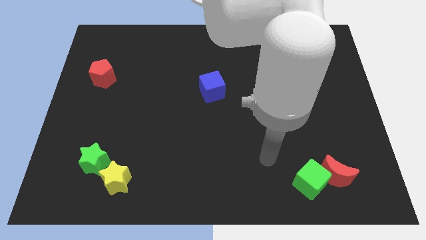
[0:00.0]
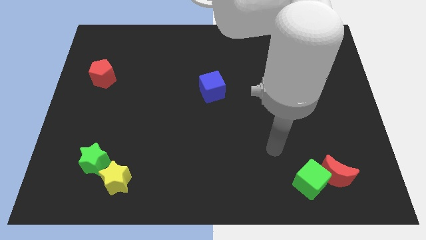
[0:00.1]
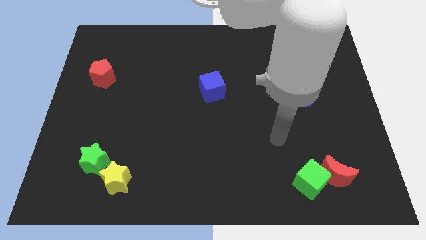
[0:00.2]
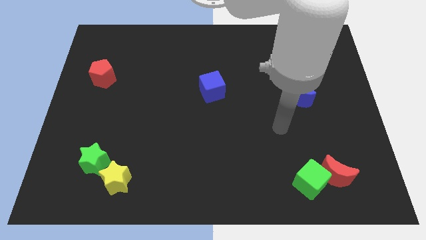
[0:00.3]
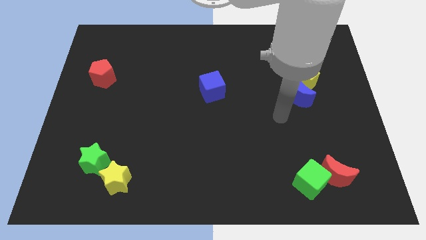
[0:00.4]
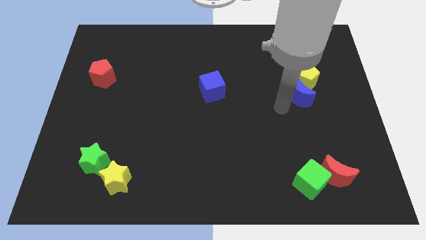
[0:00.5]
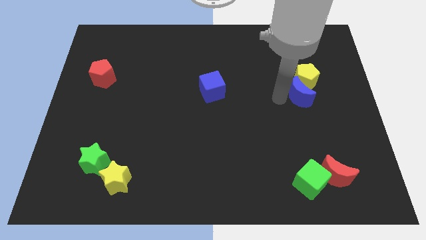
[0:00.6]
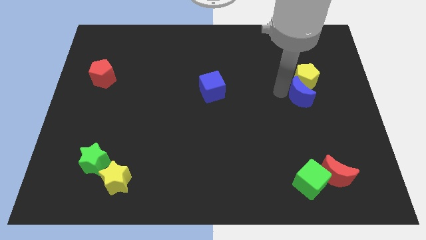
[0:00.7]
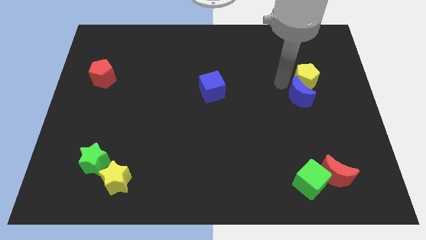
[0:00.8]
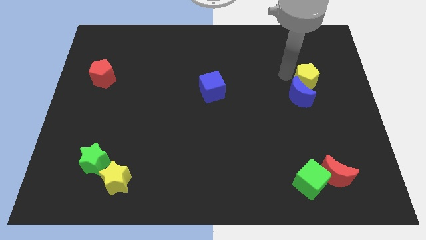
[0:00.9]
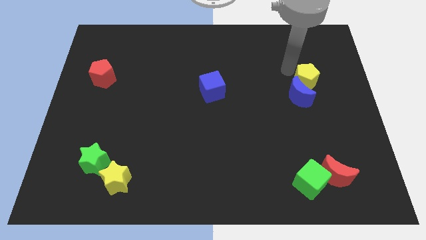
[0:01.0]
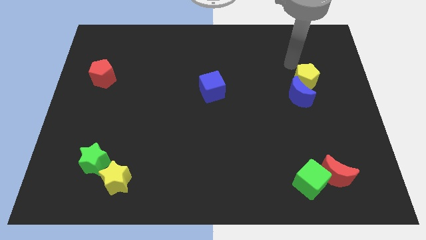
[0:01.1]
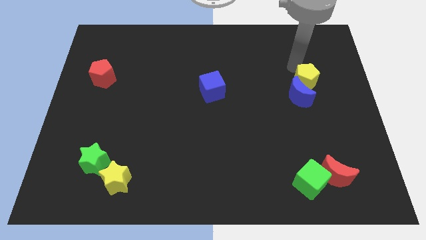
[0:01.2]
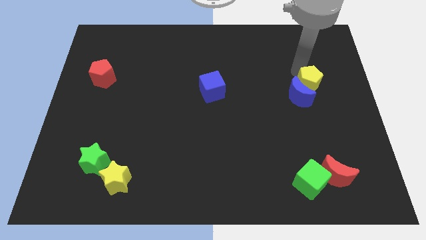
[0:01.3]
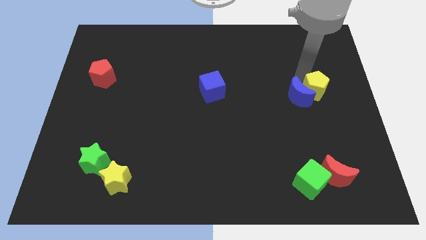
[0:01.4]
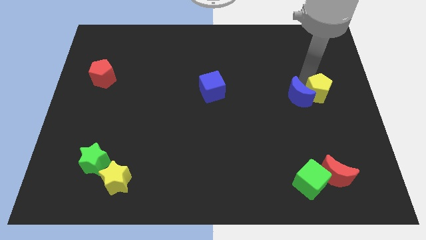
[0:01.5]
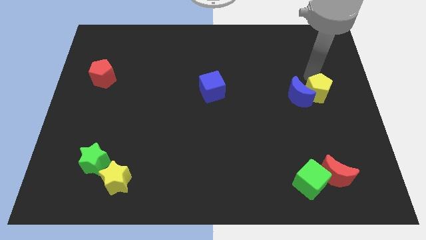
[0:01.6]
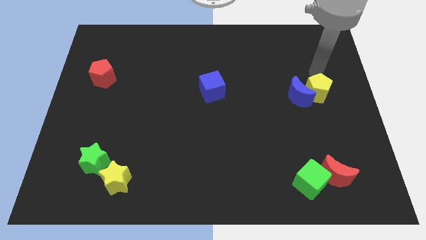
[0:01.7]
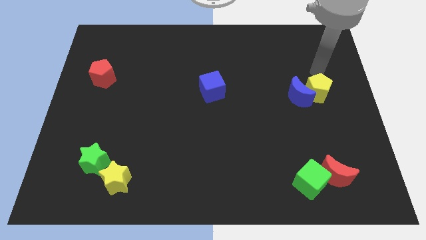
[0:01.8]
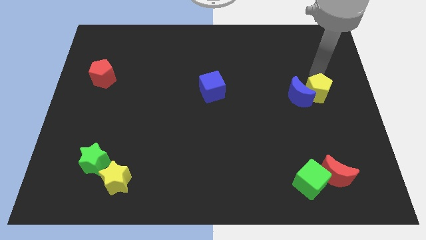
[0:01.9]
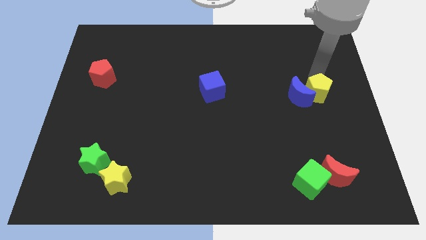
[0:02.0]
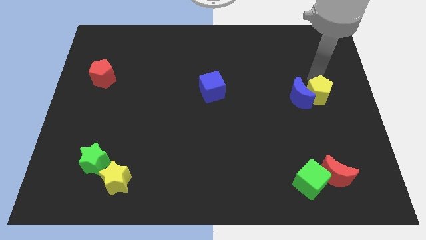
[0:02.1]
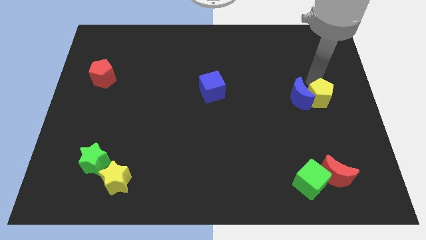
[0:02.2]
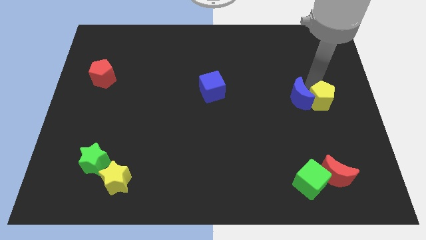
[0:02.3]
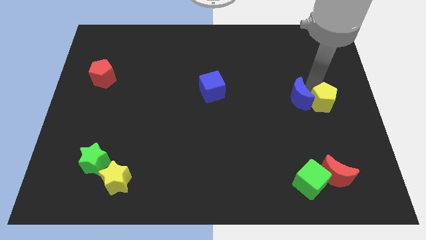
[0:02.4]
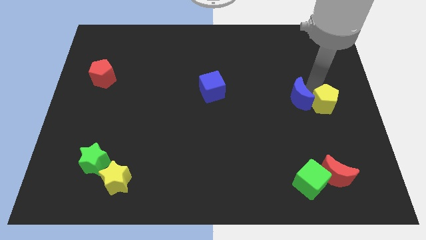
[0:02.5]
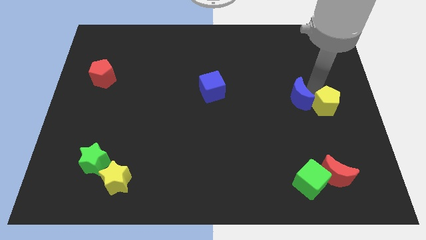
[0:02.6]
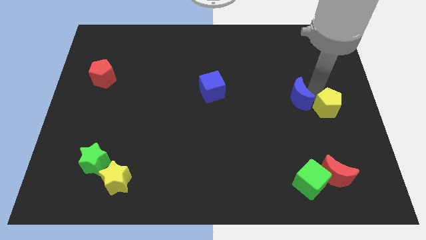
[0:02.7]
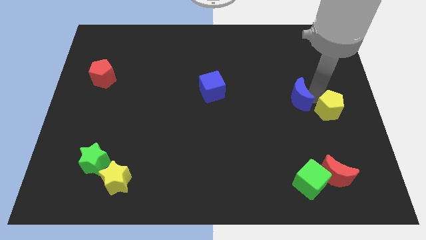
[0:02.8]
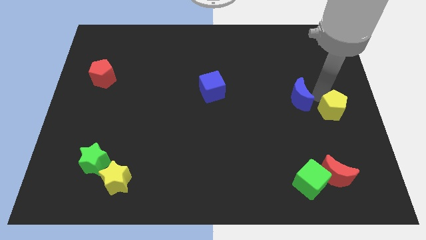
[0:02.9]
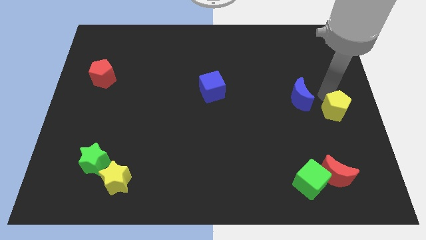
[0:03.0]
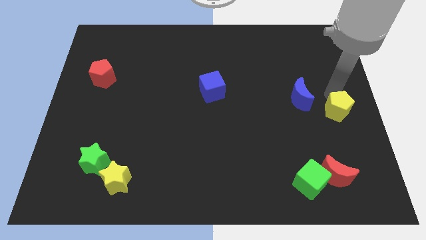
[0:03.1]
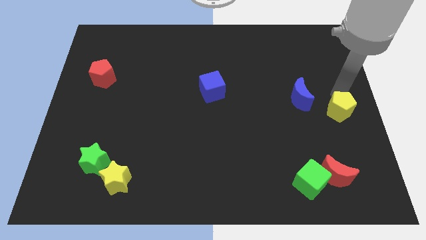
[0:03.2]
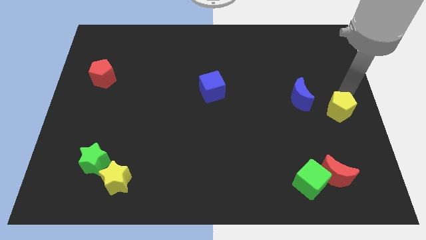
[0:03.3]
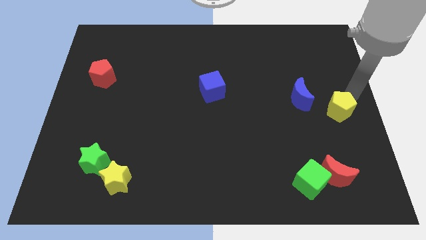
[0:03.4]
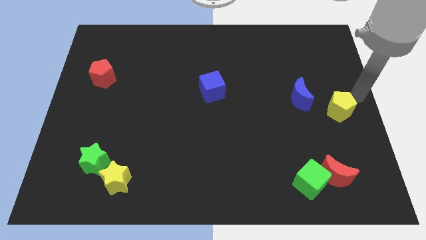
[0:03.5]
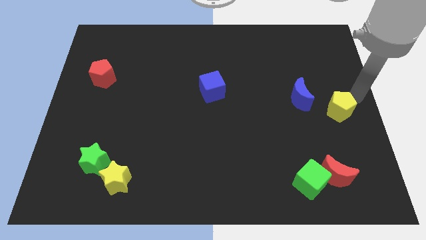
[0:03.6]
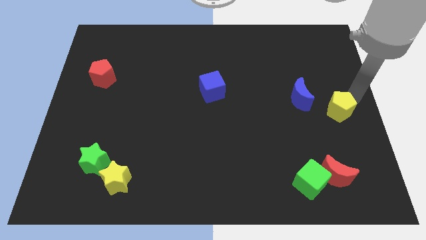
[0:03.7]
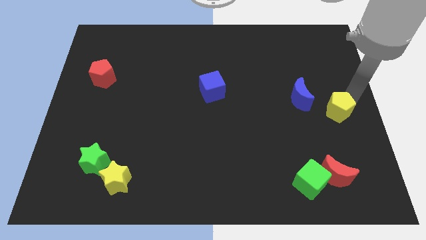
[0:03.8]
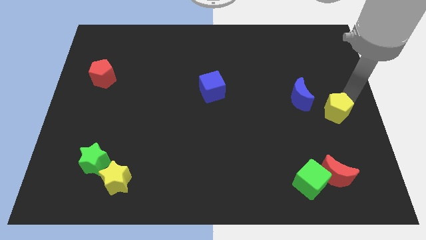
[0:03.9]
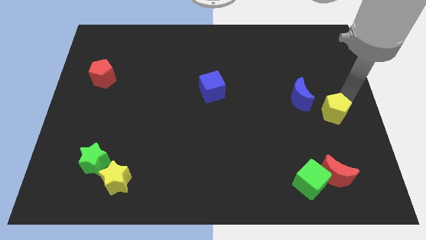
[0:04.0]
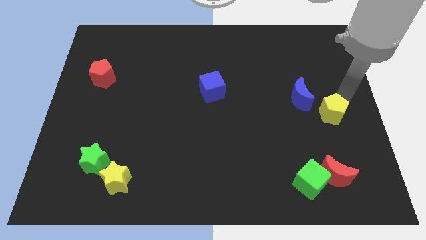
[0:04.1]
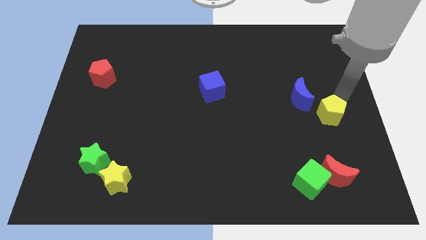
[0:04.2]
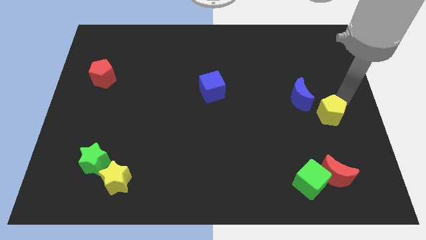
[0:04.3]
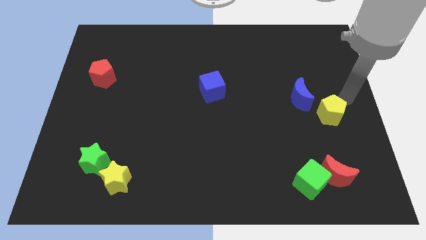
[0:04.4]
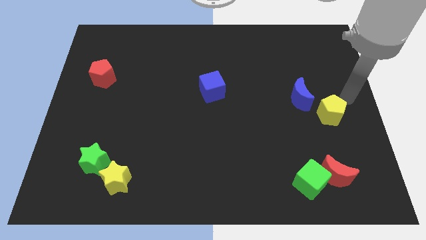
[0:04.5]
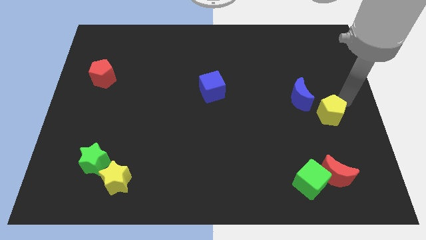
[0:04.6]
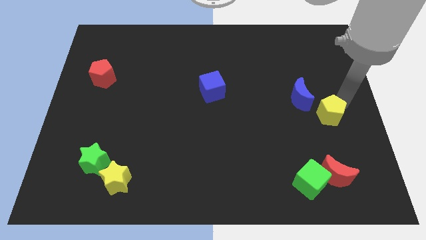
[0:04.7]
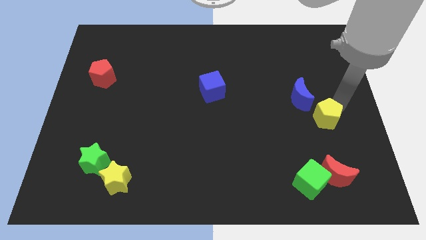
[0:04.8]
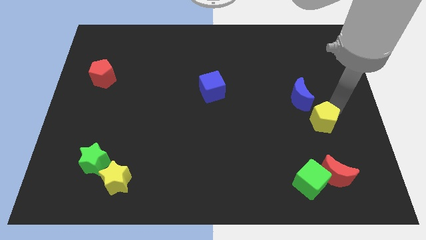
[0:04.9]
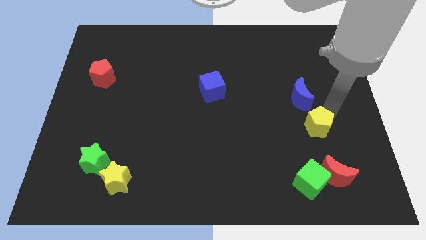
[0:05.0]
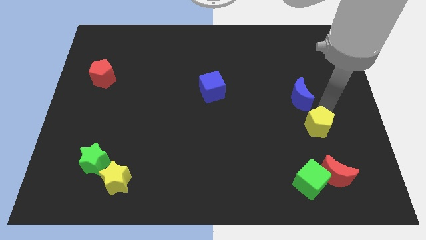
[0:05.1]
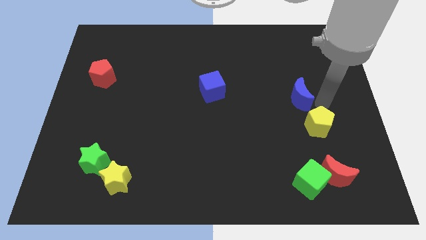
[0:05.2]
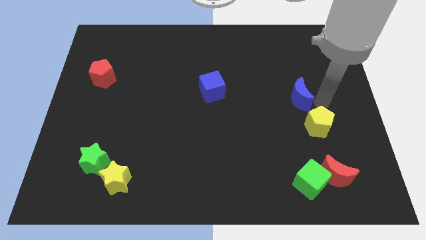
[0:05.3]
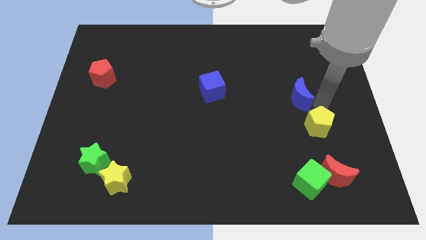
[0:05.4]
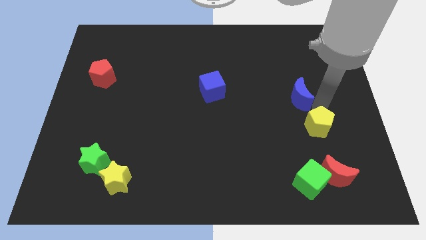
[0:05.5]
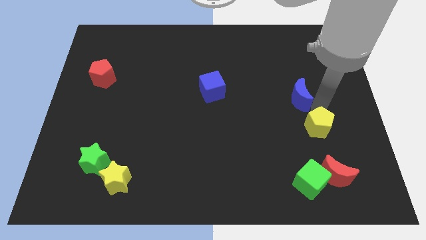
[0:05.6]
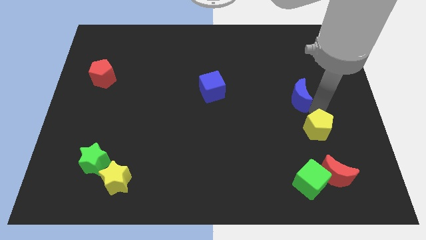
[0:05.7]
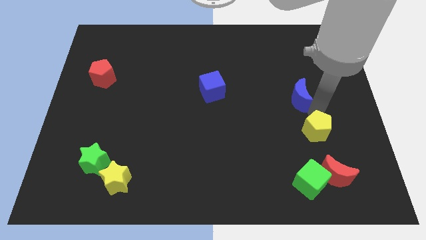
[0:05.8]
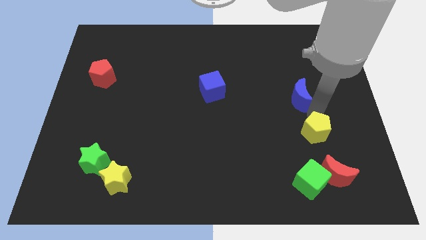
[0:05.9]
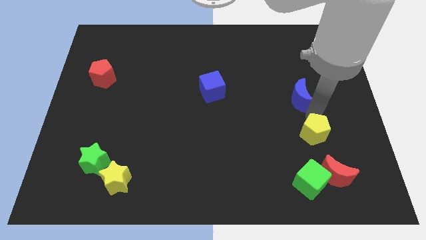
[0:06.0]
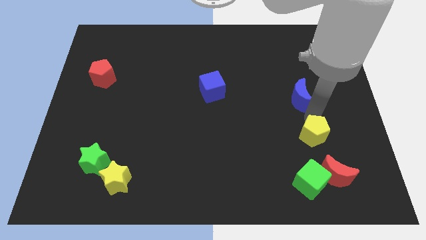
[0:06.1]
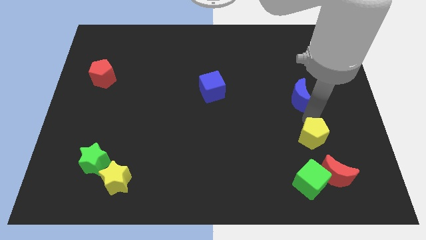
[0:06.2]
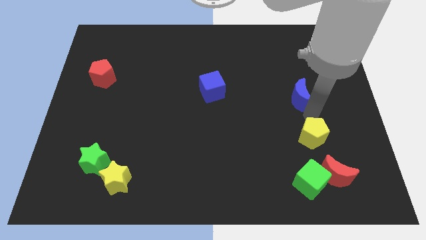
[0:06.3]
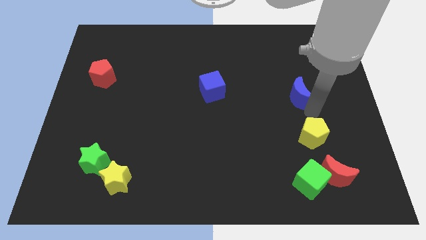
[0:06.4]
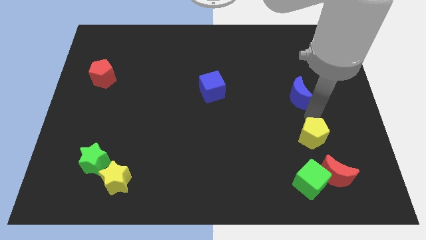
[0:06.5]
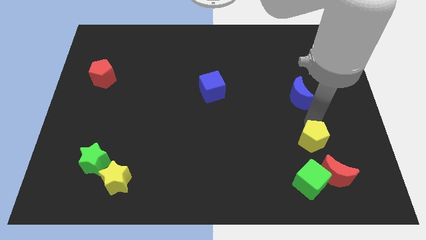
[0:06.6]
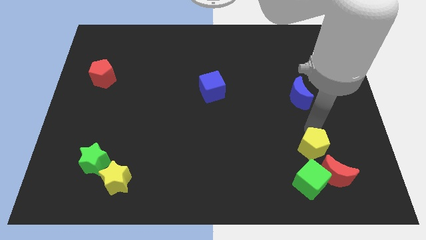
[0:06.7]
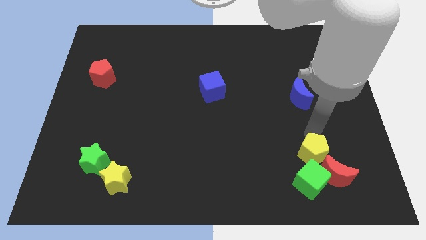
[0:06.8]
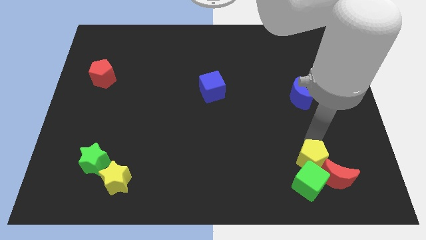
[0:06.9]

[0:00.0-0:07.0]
move the yellow pentagon to the green cube

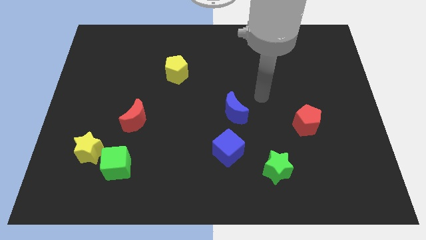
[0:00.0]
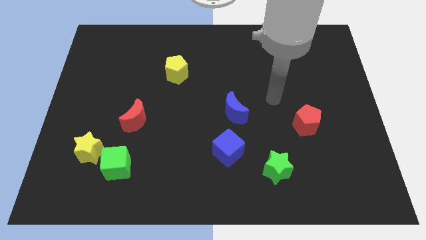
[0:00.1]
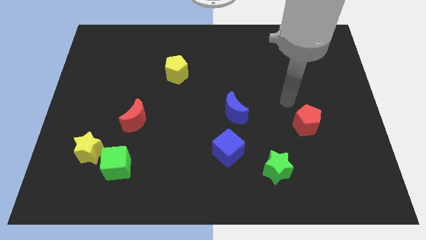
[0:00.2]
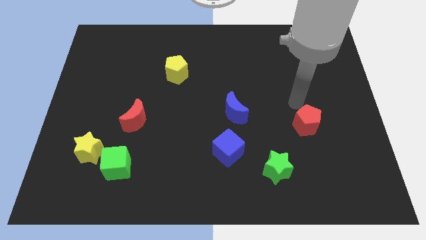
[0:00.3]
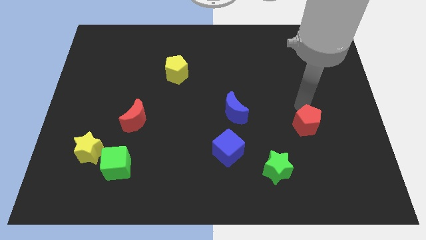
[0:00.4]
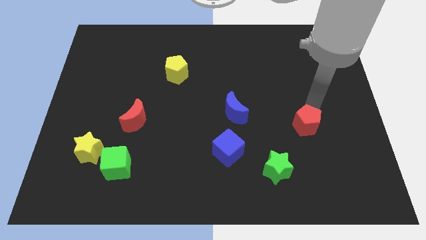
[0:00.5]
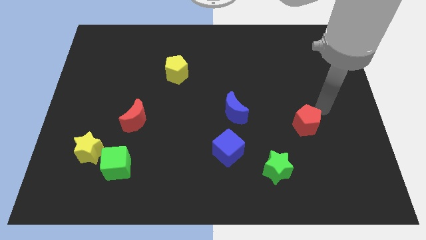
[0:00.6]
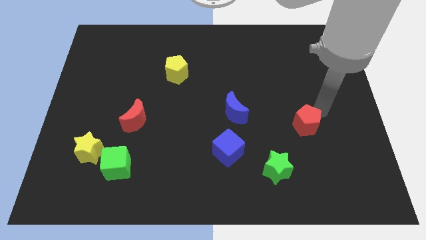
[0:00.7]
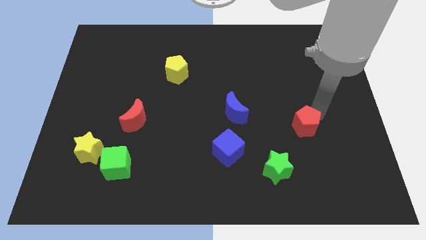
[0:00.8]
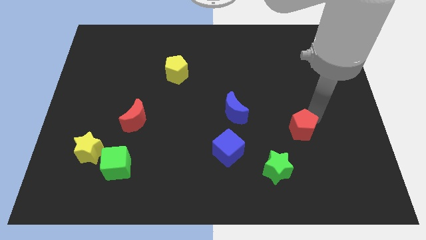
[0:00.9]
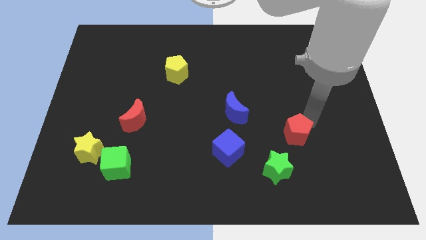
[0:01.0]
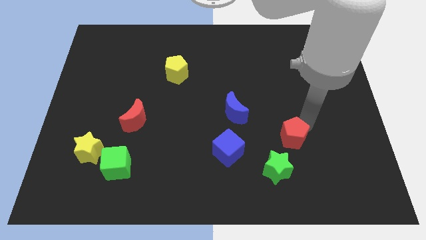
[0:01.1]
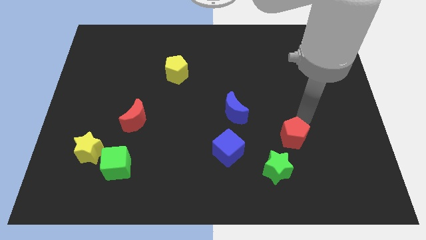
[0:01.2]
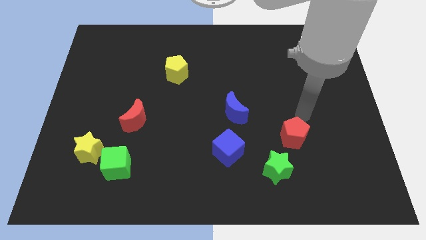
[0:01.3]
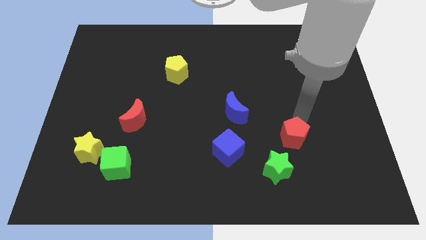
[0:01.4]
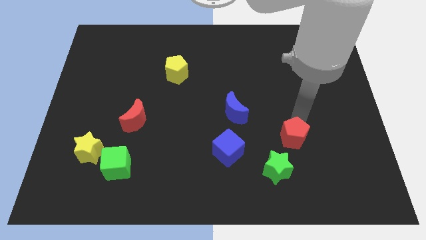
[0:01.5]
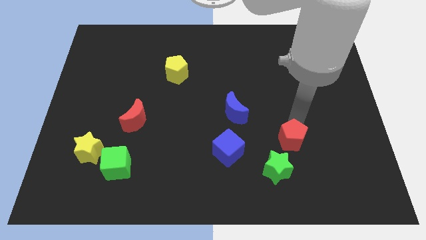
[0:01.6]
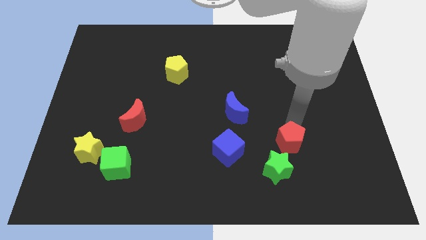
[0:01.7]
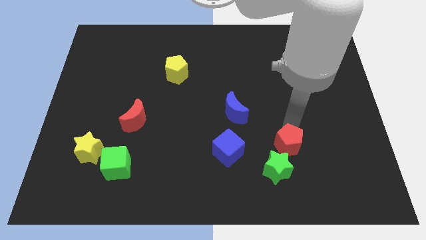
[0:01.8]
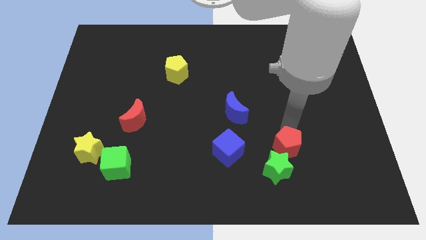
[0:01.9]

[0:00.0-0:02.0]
move the red pentagon next to the green star
